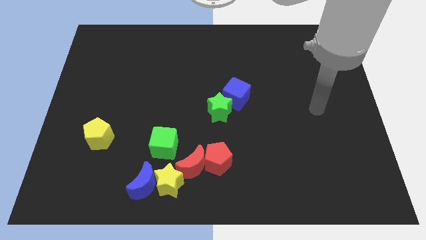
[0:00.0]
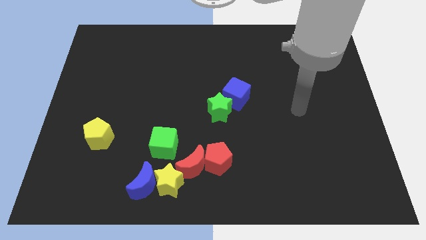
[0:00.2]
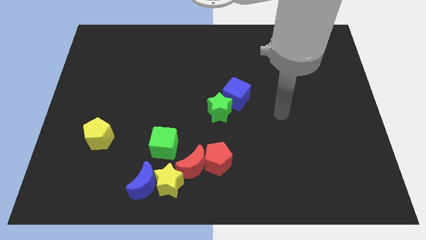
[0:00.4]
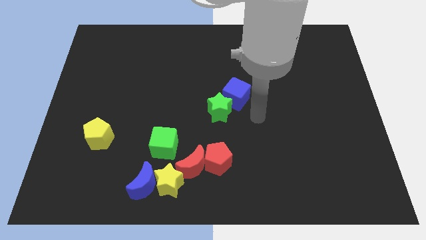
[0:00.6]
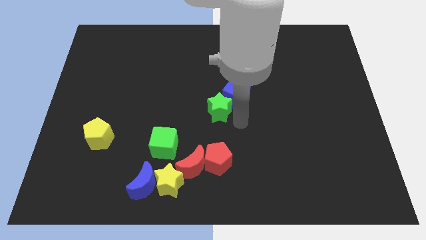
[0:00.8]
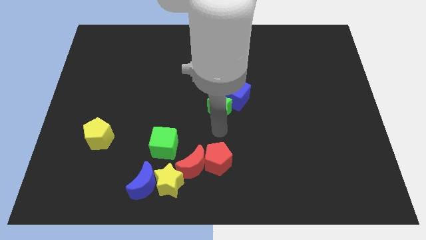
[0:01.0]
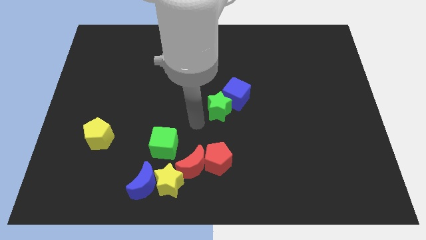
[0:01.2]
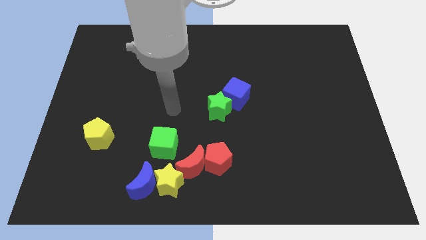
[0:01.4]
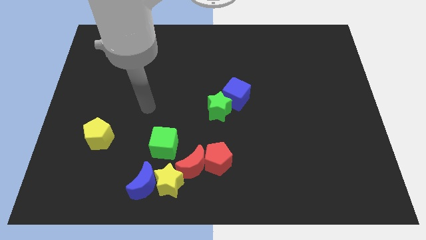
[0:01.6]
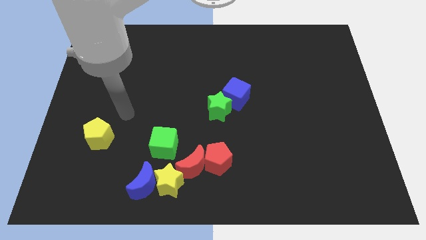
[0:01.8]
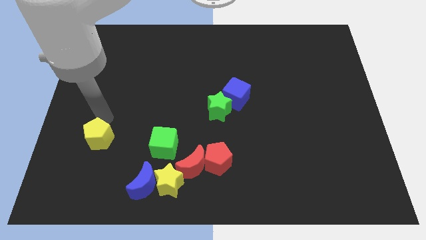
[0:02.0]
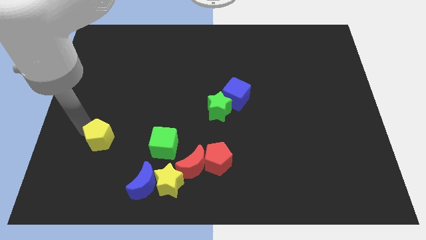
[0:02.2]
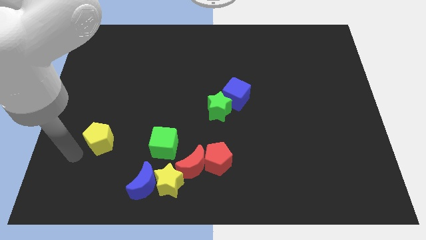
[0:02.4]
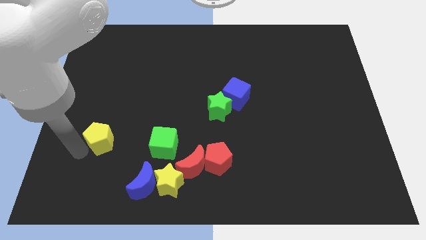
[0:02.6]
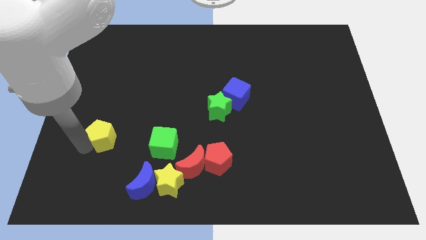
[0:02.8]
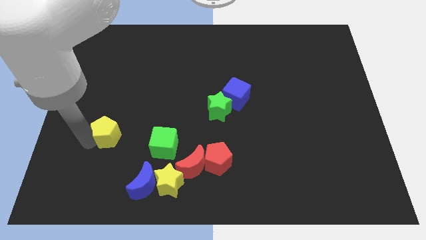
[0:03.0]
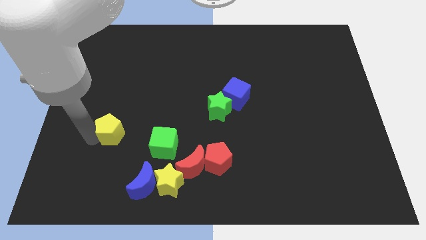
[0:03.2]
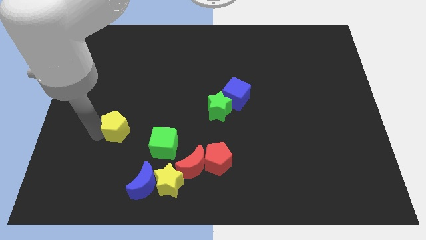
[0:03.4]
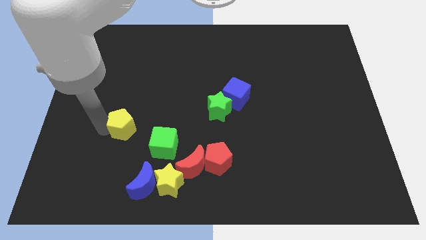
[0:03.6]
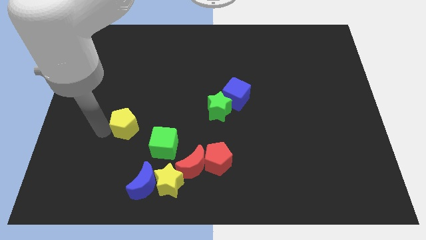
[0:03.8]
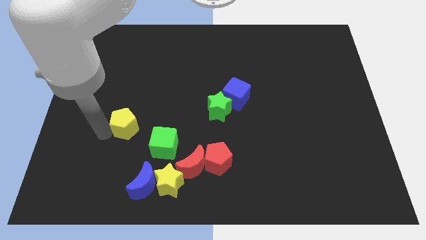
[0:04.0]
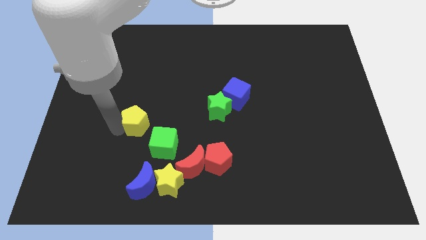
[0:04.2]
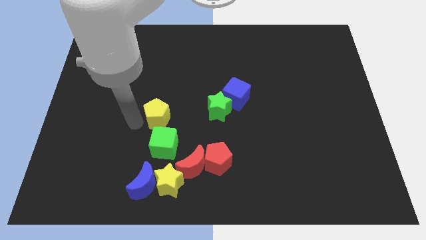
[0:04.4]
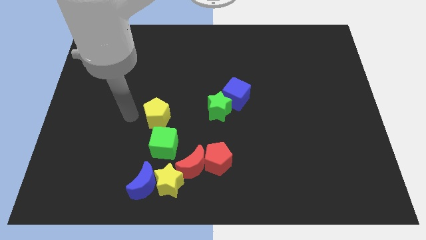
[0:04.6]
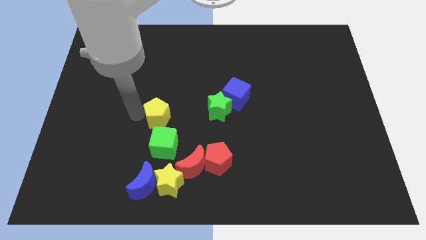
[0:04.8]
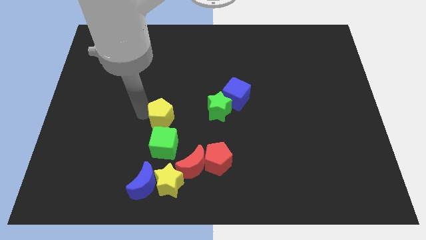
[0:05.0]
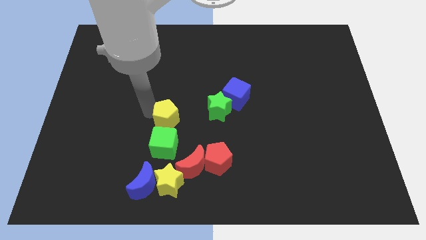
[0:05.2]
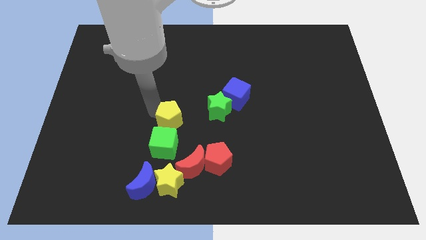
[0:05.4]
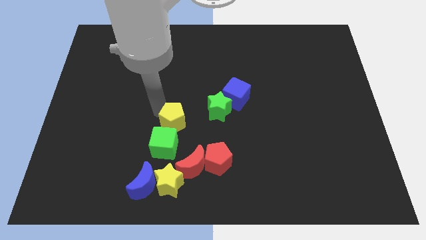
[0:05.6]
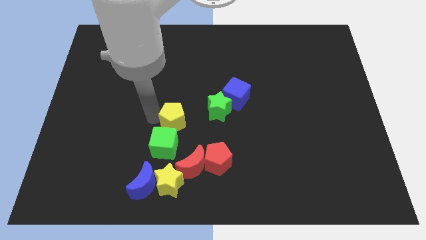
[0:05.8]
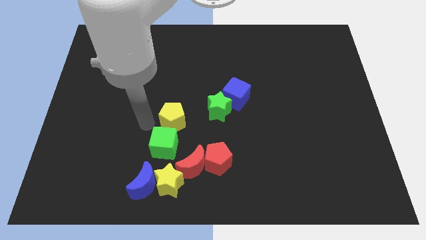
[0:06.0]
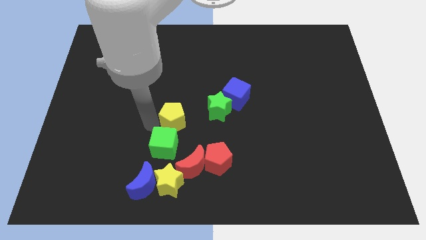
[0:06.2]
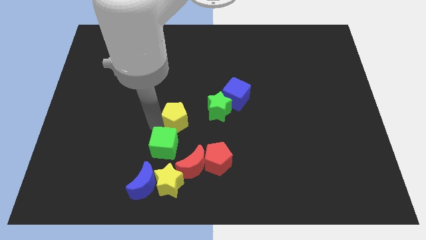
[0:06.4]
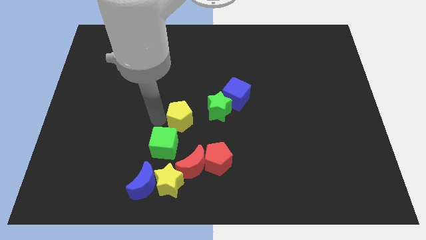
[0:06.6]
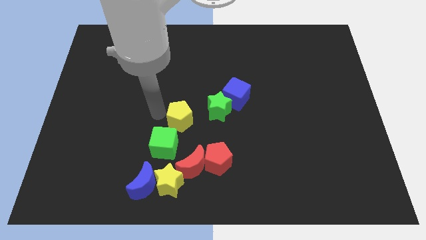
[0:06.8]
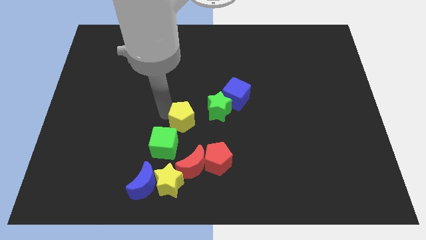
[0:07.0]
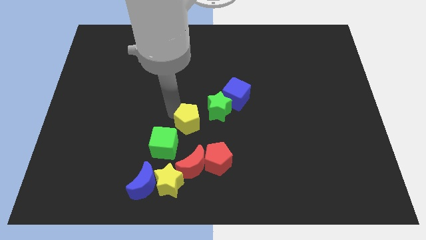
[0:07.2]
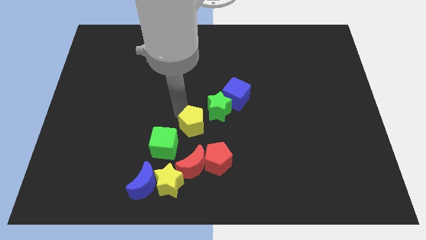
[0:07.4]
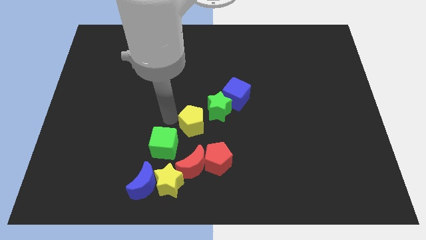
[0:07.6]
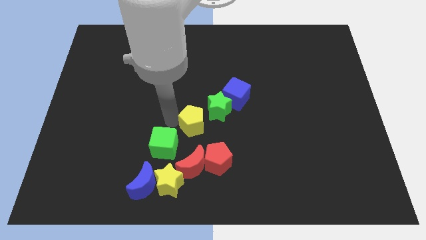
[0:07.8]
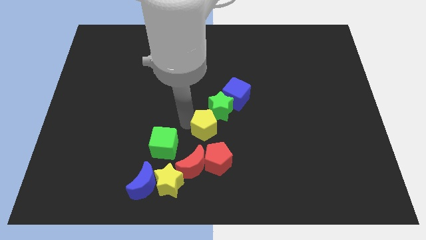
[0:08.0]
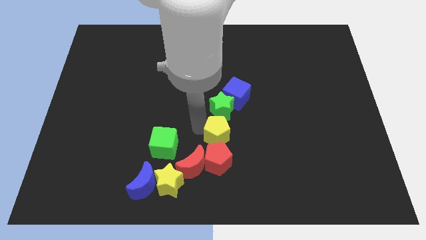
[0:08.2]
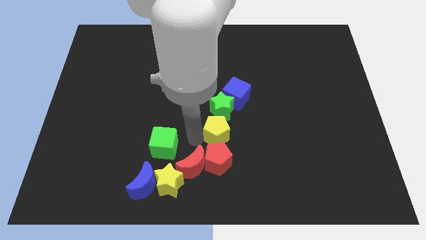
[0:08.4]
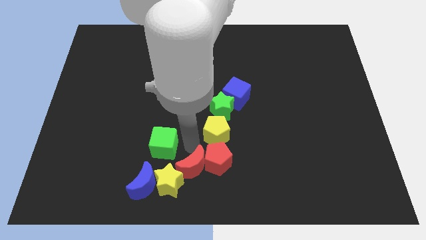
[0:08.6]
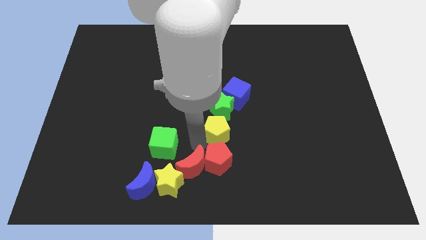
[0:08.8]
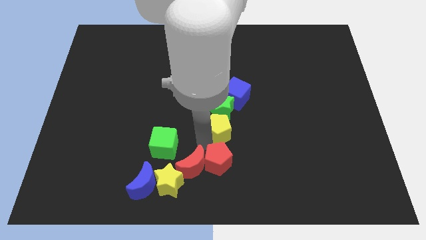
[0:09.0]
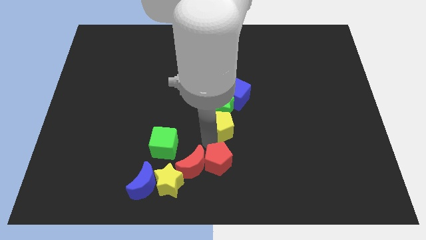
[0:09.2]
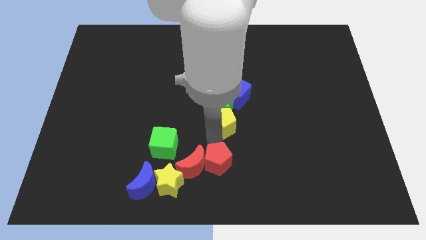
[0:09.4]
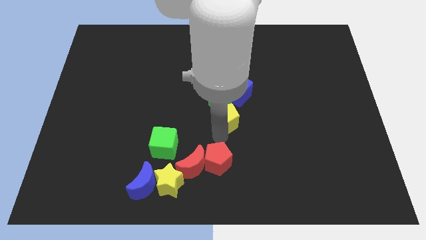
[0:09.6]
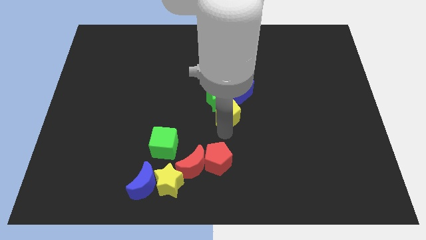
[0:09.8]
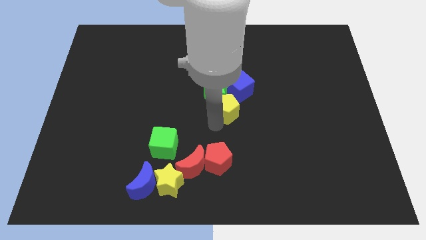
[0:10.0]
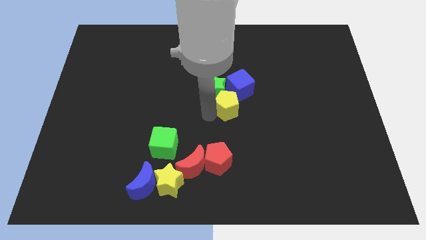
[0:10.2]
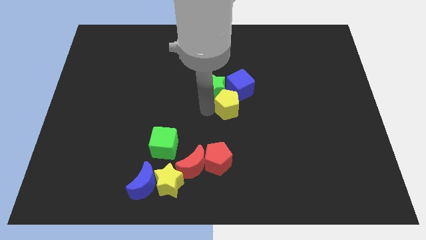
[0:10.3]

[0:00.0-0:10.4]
push the yellow pentagon right of the green star

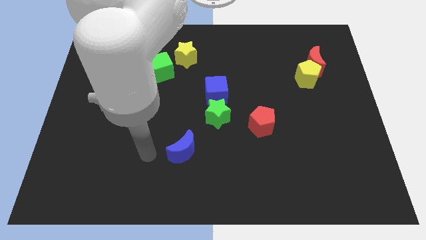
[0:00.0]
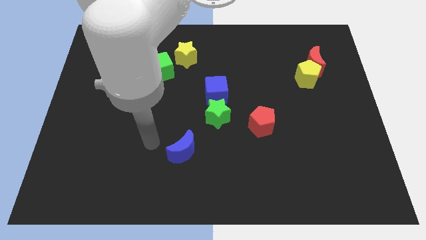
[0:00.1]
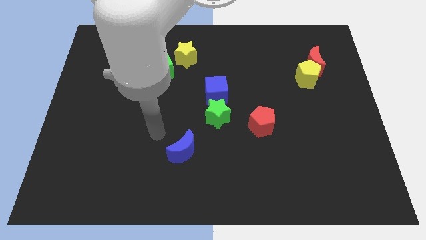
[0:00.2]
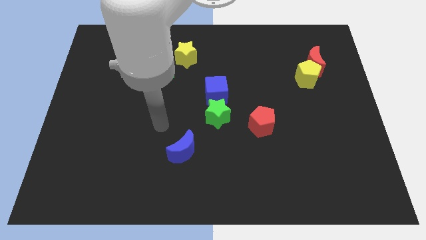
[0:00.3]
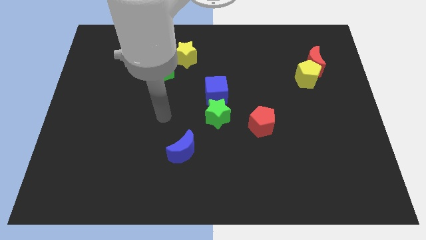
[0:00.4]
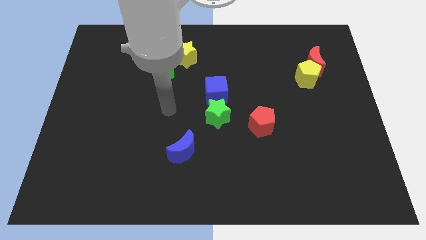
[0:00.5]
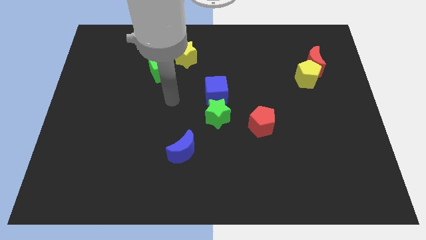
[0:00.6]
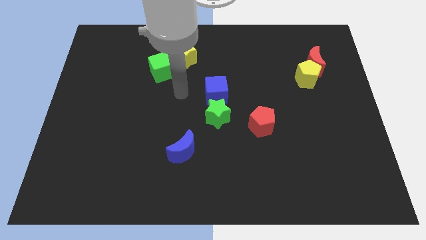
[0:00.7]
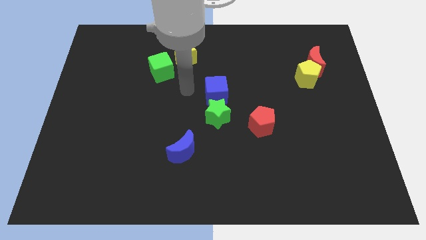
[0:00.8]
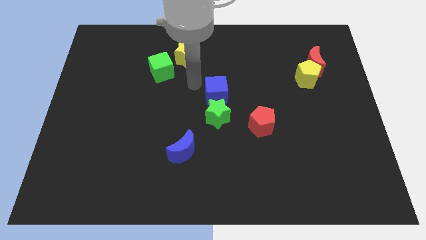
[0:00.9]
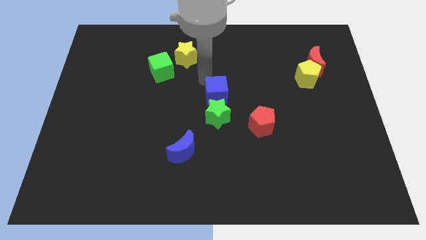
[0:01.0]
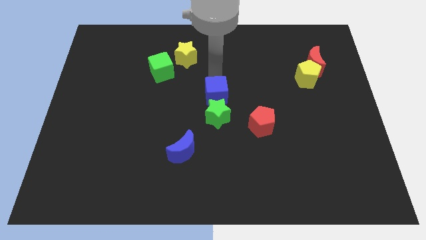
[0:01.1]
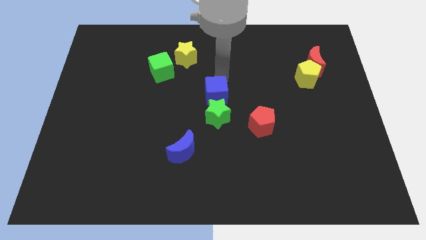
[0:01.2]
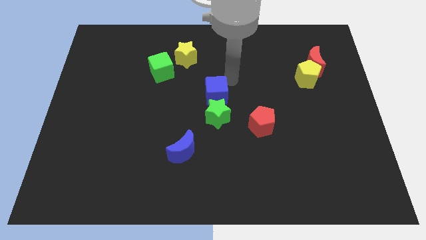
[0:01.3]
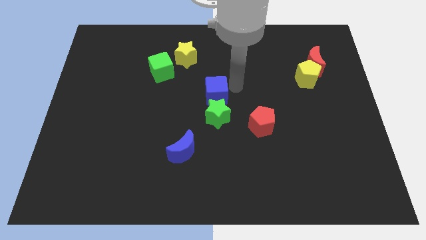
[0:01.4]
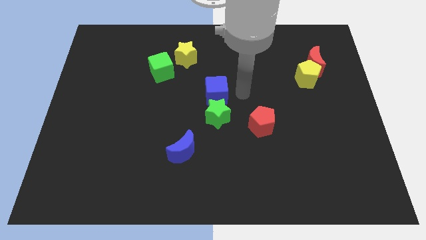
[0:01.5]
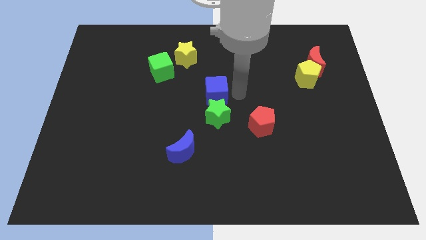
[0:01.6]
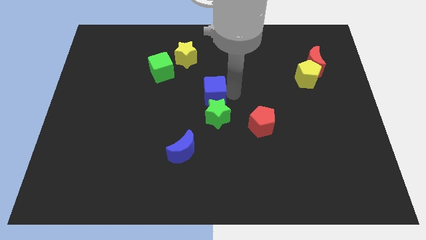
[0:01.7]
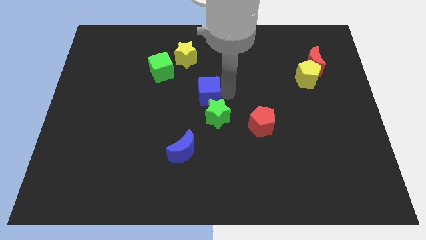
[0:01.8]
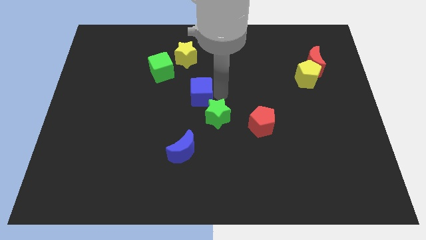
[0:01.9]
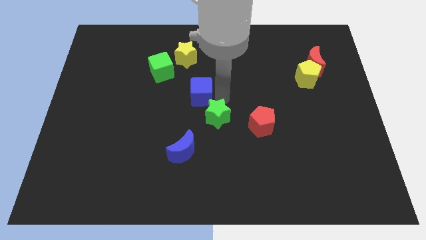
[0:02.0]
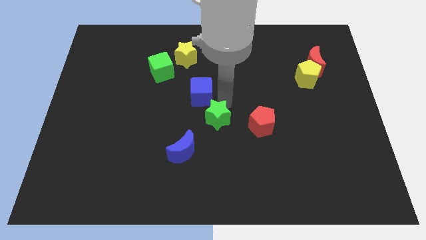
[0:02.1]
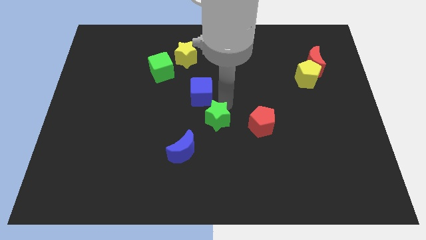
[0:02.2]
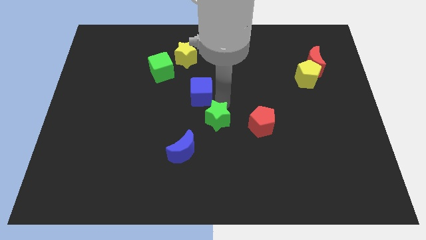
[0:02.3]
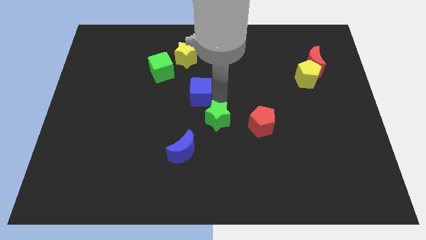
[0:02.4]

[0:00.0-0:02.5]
put the blue cube to the bottom right side of the green cube
